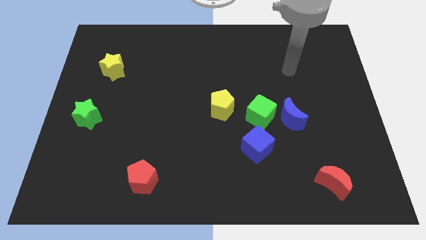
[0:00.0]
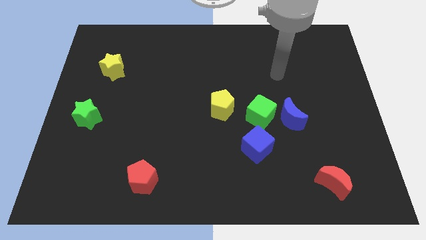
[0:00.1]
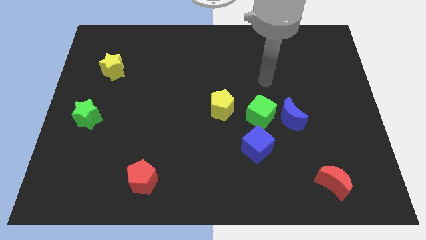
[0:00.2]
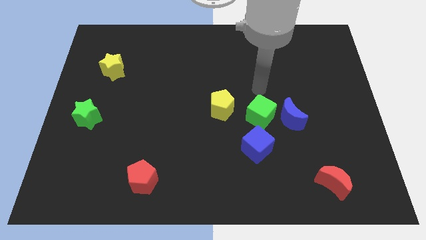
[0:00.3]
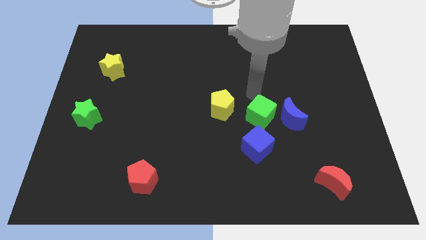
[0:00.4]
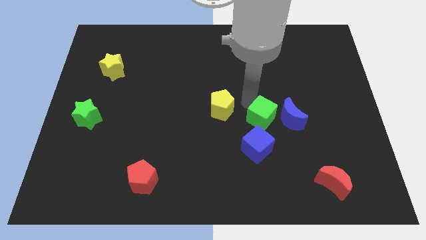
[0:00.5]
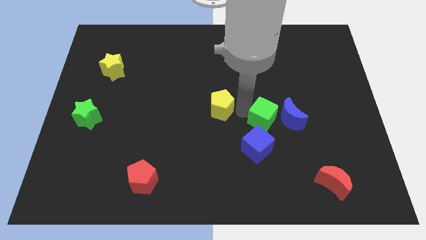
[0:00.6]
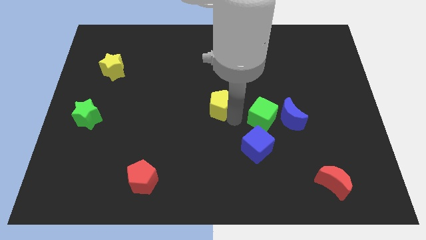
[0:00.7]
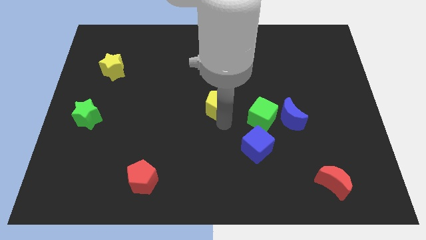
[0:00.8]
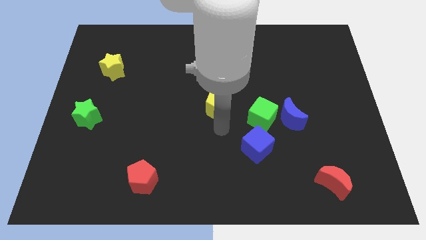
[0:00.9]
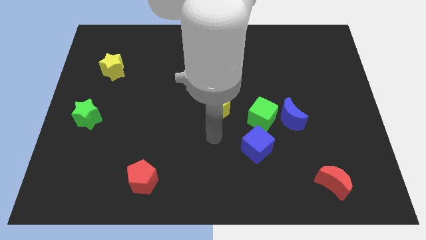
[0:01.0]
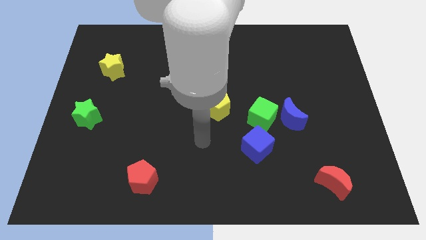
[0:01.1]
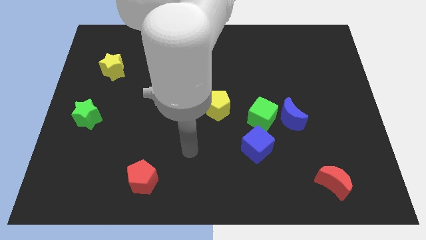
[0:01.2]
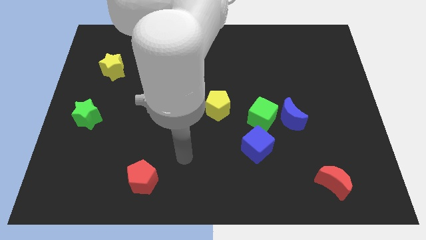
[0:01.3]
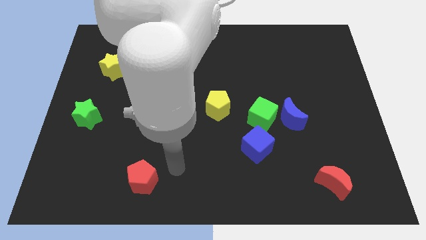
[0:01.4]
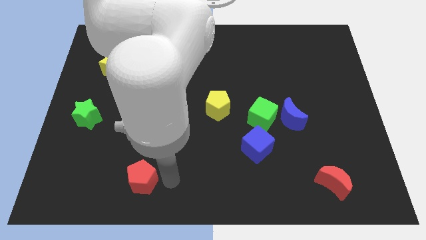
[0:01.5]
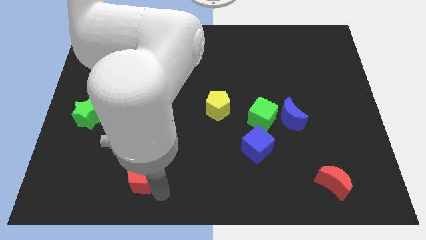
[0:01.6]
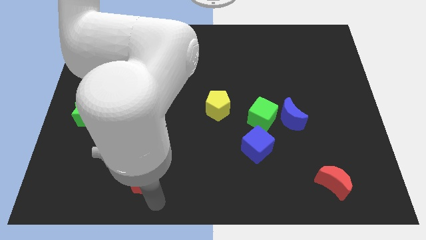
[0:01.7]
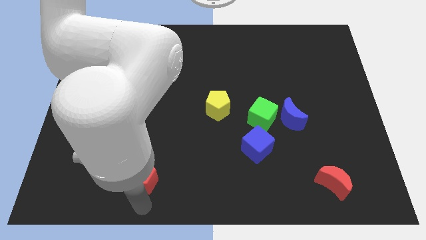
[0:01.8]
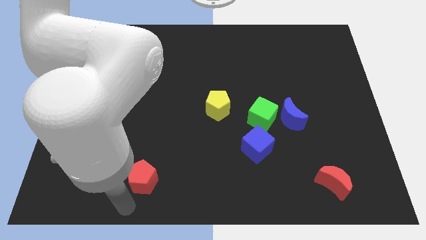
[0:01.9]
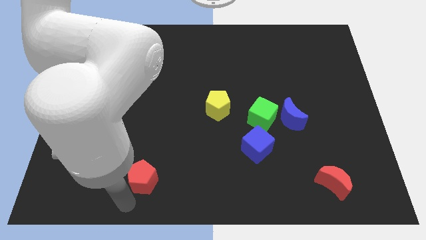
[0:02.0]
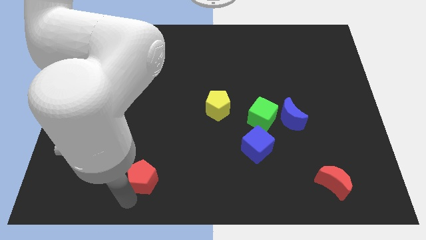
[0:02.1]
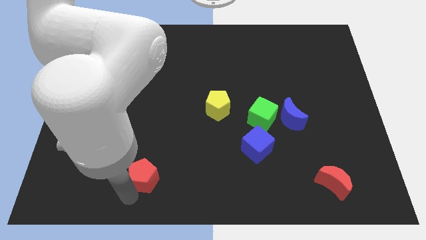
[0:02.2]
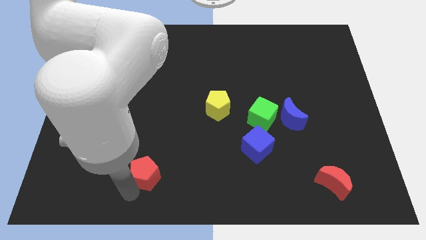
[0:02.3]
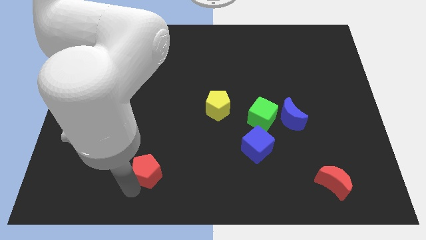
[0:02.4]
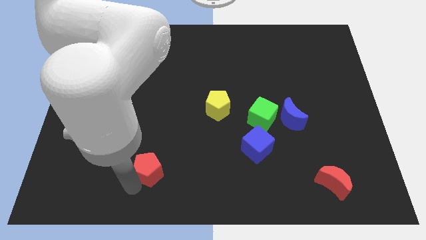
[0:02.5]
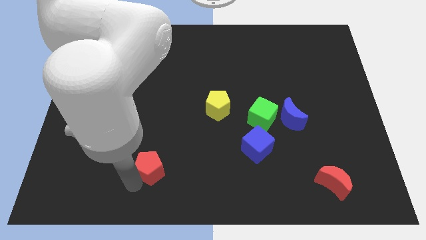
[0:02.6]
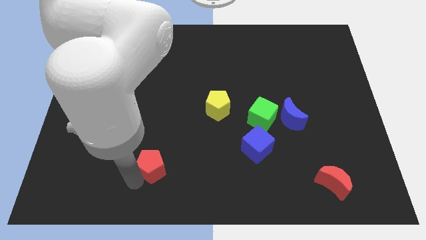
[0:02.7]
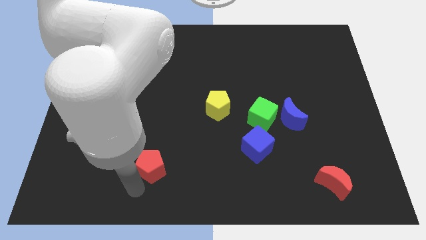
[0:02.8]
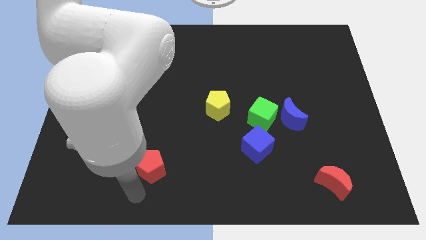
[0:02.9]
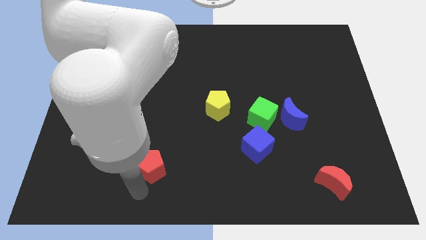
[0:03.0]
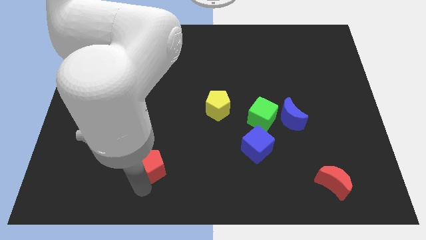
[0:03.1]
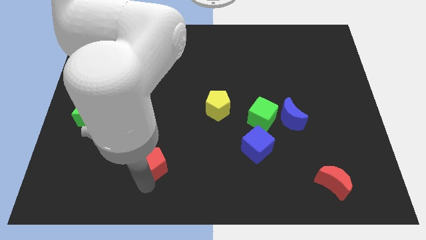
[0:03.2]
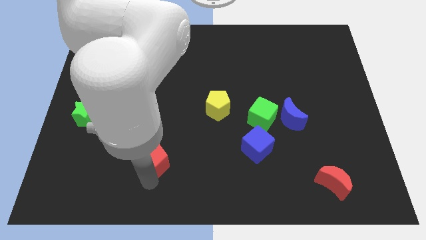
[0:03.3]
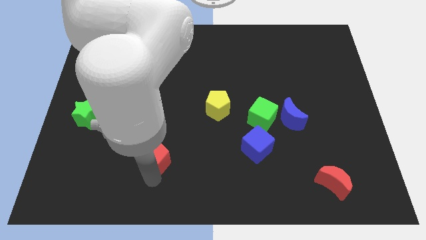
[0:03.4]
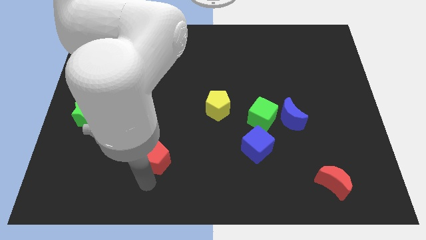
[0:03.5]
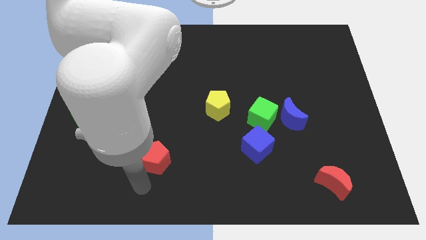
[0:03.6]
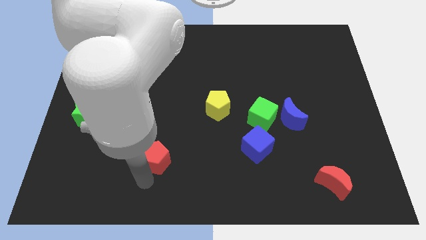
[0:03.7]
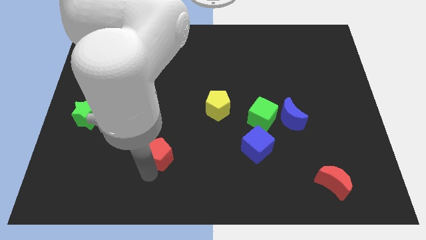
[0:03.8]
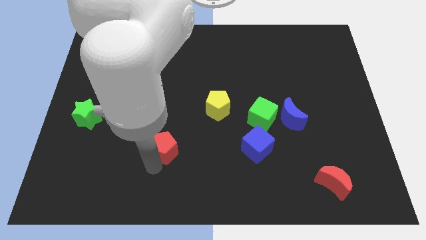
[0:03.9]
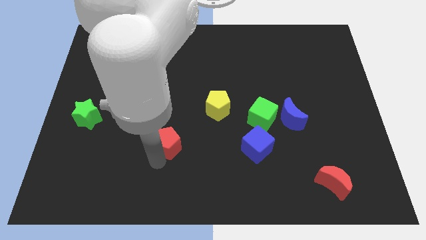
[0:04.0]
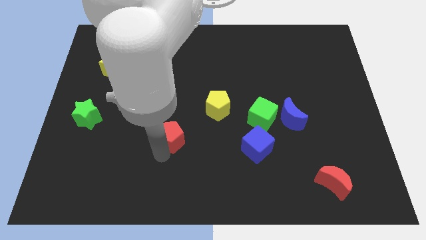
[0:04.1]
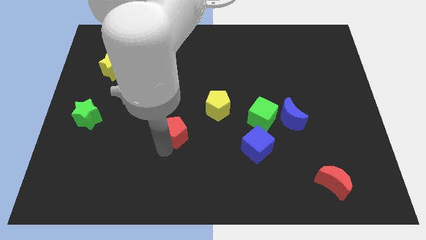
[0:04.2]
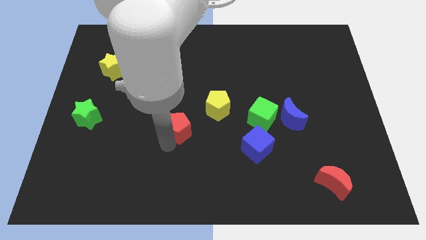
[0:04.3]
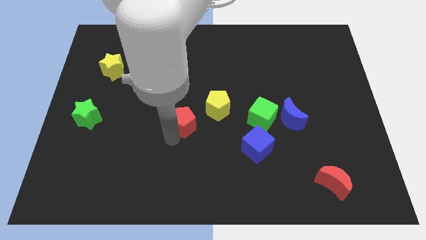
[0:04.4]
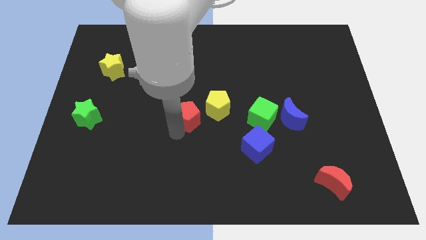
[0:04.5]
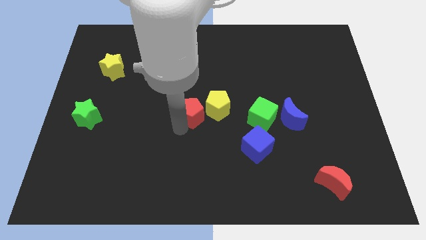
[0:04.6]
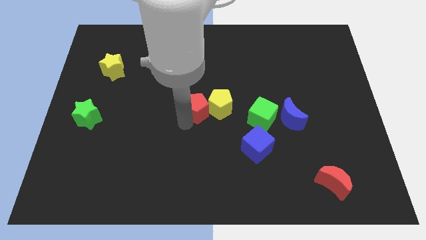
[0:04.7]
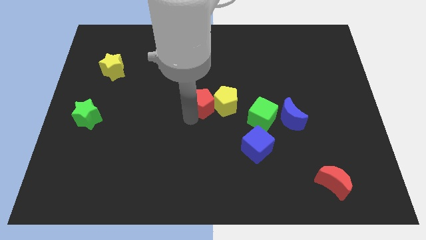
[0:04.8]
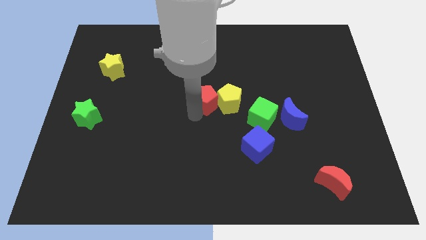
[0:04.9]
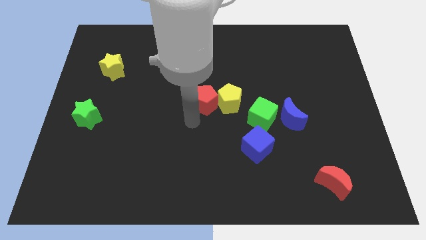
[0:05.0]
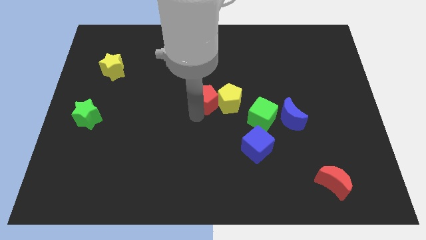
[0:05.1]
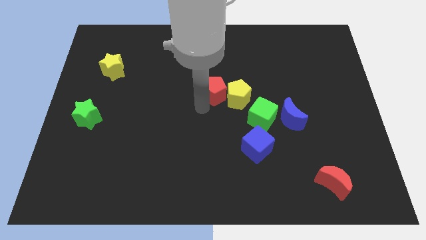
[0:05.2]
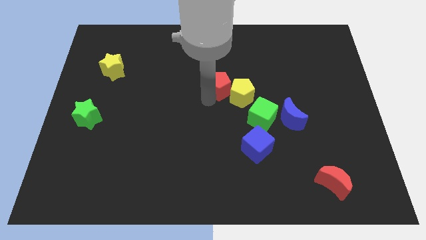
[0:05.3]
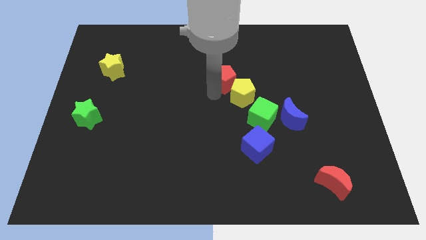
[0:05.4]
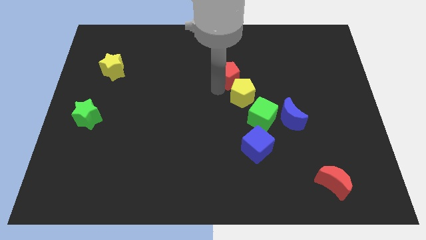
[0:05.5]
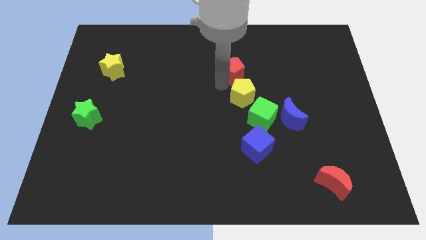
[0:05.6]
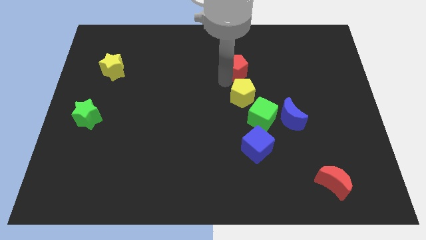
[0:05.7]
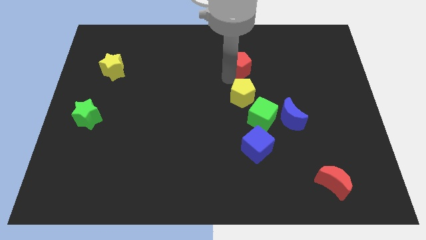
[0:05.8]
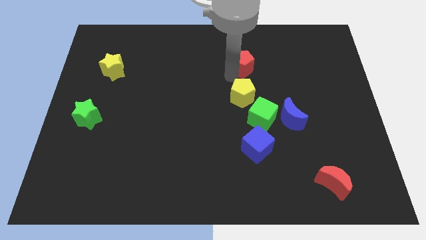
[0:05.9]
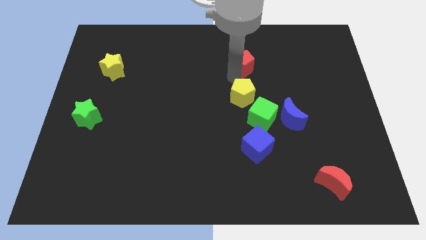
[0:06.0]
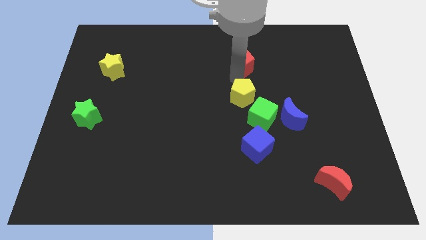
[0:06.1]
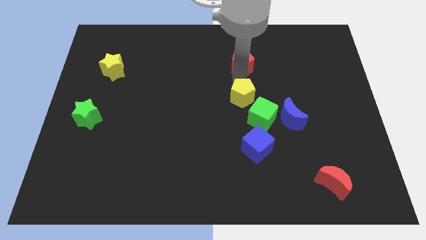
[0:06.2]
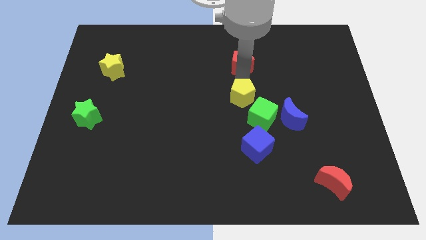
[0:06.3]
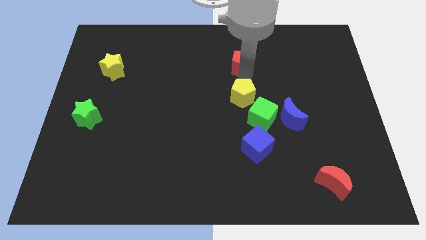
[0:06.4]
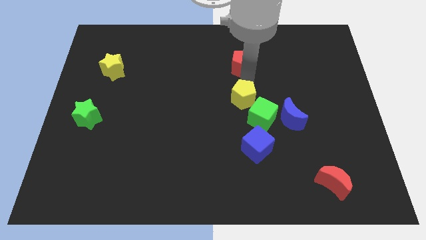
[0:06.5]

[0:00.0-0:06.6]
move the red pentagon to the top side of the yellow pentagon
